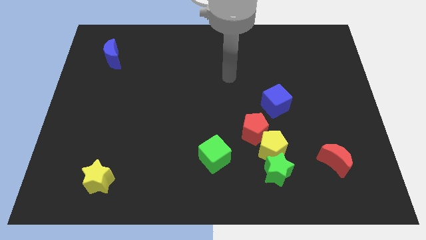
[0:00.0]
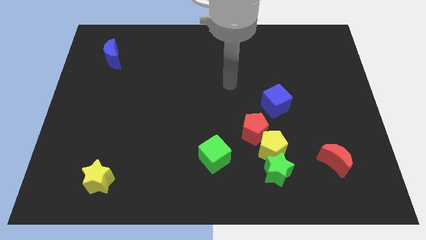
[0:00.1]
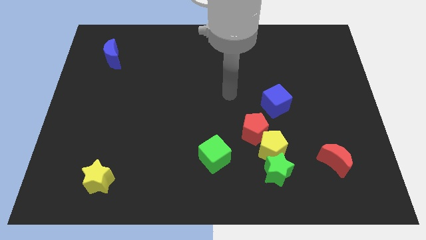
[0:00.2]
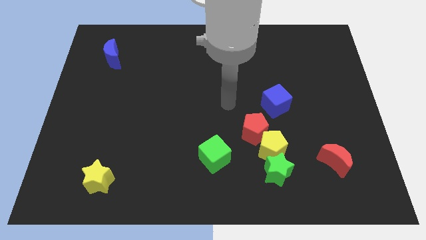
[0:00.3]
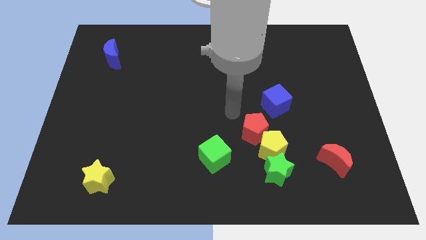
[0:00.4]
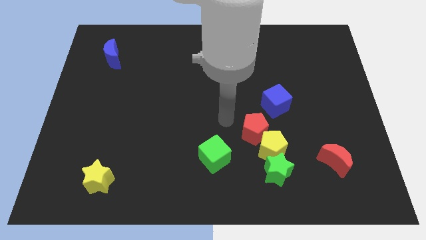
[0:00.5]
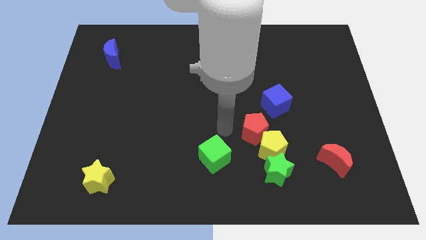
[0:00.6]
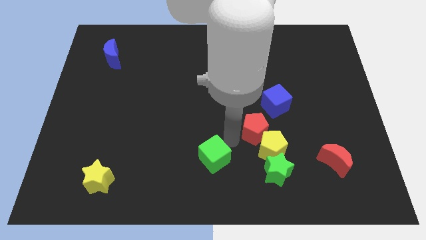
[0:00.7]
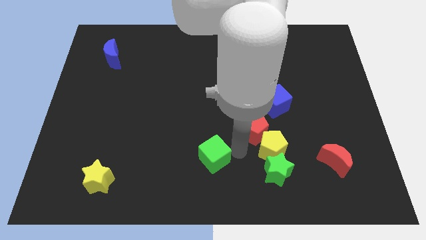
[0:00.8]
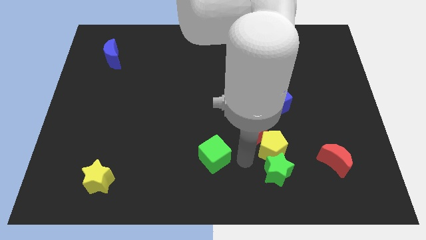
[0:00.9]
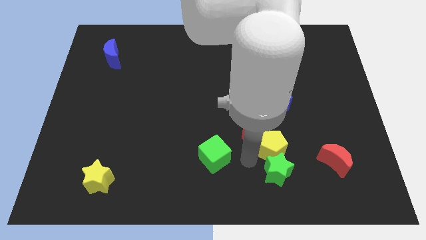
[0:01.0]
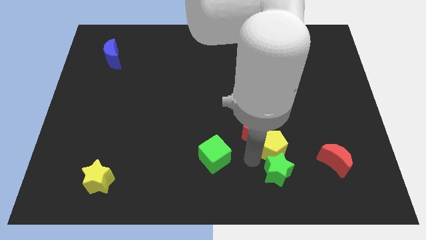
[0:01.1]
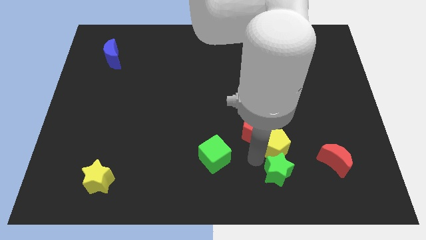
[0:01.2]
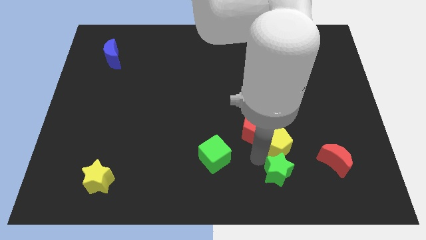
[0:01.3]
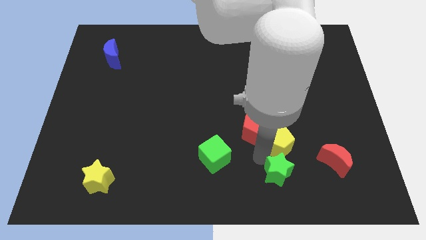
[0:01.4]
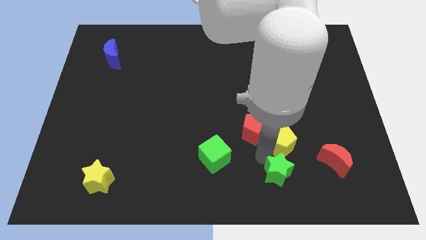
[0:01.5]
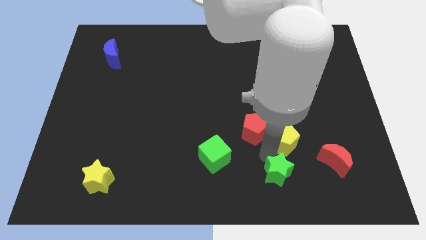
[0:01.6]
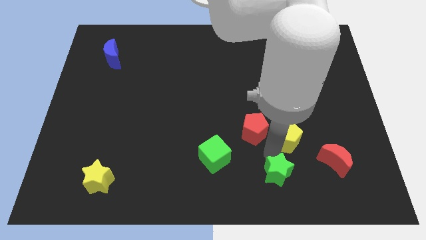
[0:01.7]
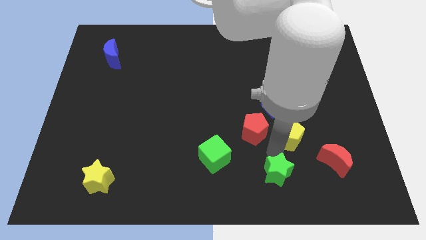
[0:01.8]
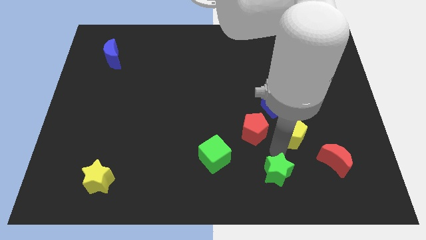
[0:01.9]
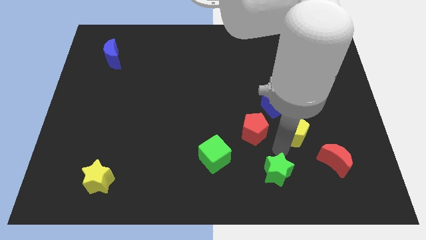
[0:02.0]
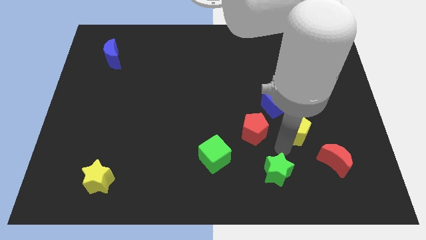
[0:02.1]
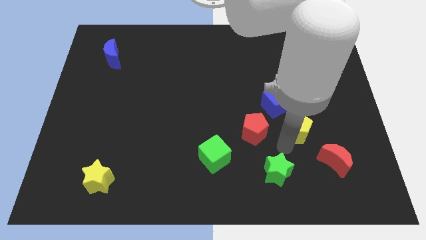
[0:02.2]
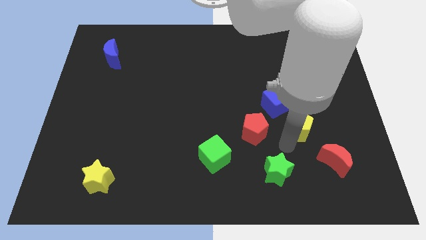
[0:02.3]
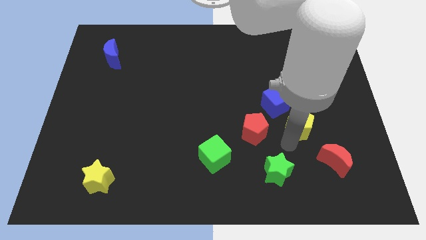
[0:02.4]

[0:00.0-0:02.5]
move the yellow pentagon away from the red pentagon and green star

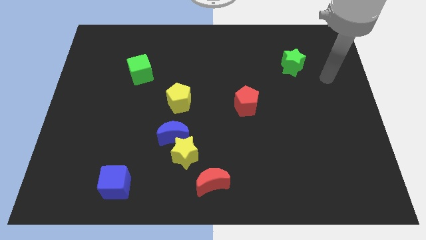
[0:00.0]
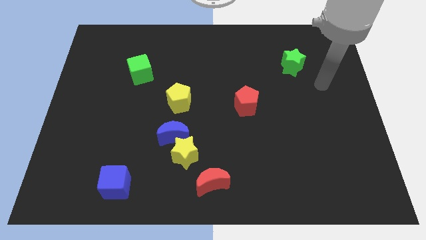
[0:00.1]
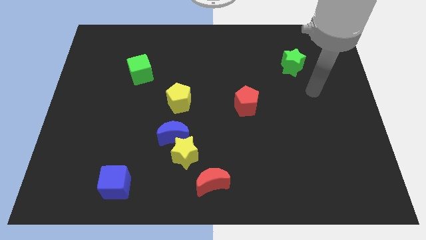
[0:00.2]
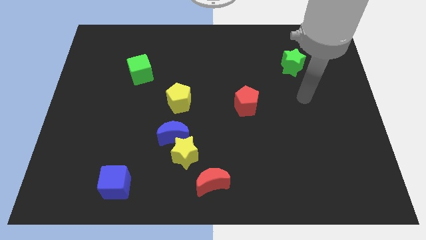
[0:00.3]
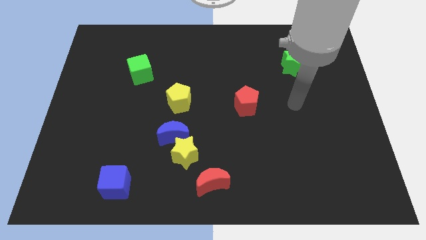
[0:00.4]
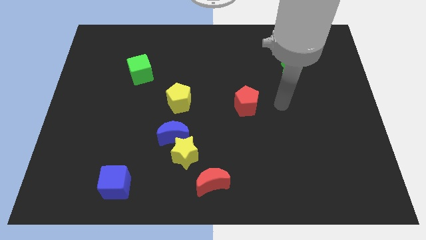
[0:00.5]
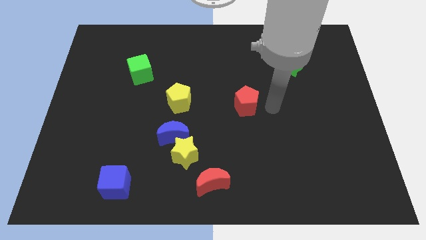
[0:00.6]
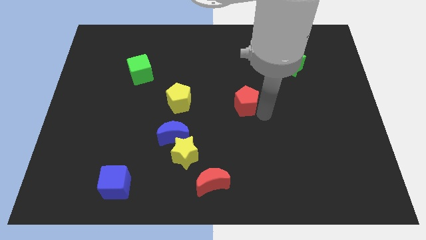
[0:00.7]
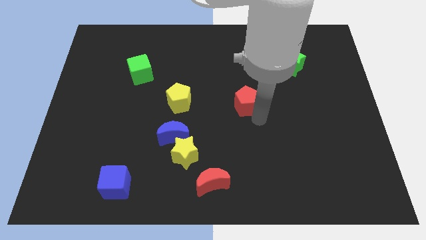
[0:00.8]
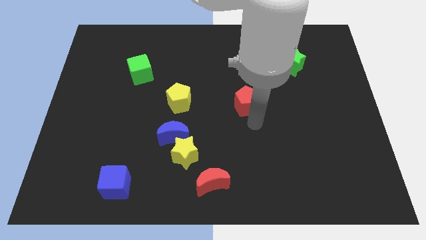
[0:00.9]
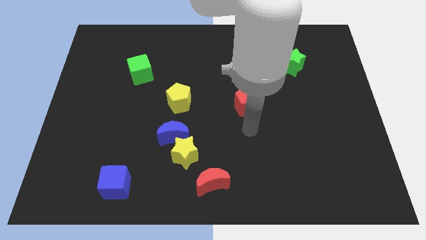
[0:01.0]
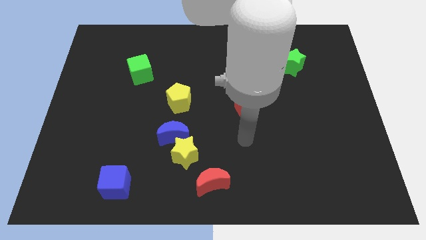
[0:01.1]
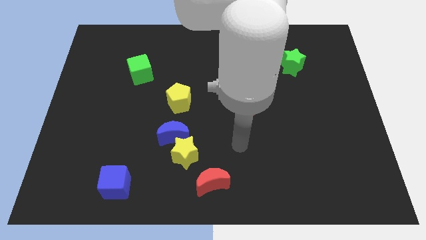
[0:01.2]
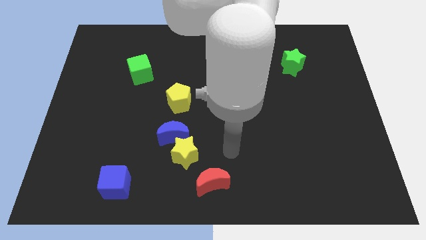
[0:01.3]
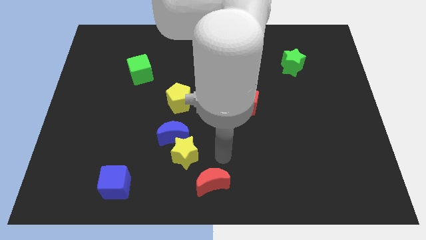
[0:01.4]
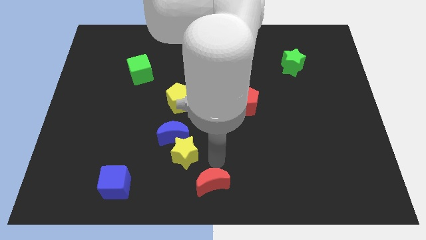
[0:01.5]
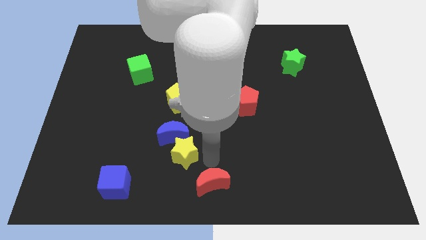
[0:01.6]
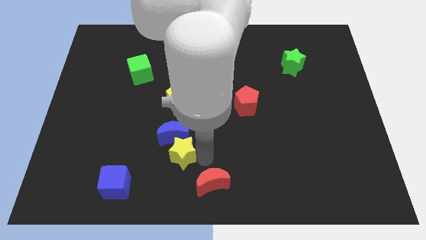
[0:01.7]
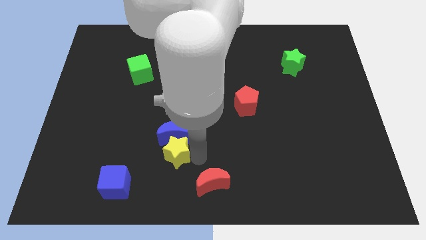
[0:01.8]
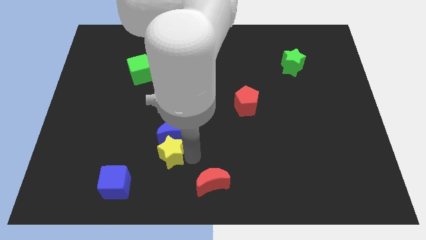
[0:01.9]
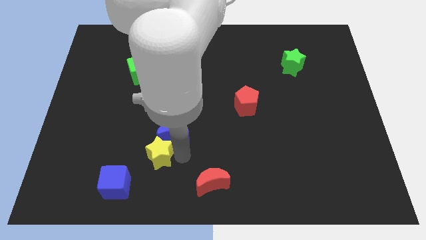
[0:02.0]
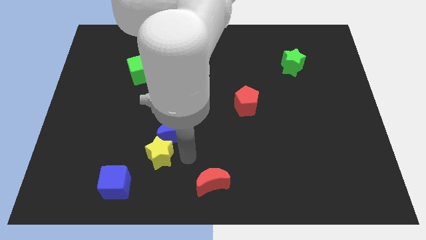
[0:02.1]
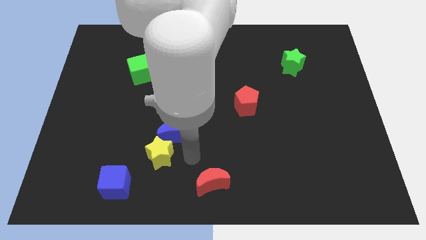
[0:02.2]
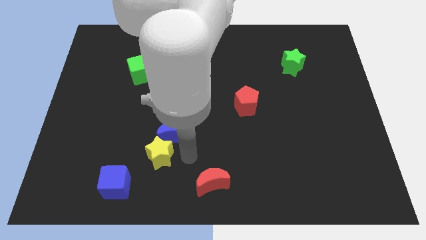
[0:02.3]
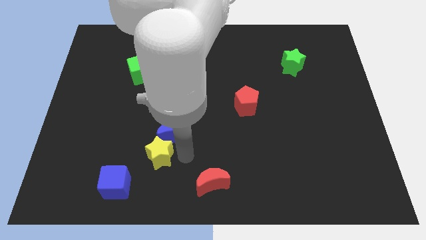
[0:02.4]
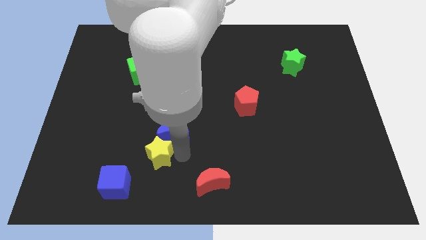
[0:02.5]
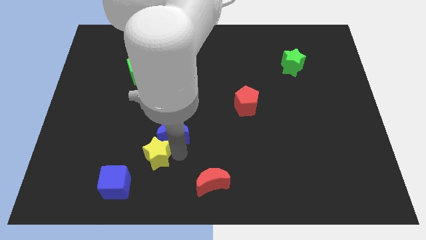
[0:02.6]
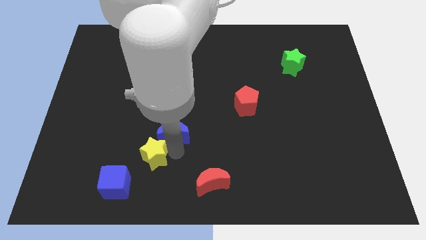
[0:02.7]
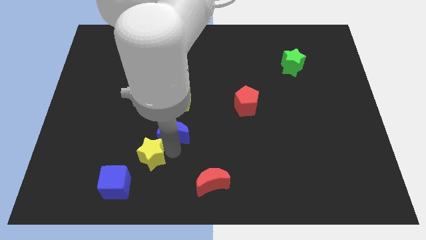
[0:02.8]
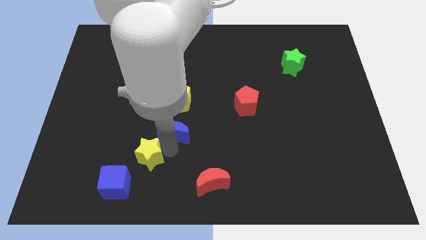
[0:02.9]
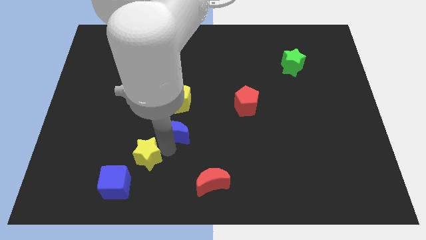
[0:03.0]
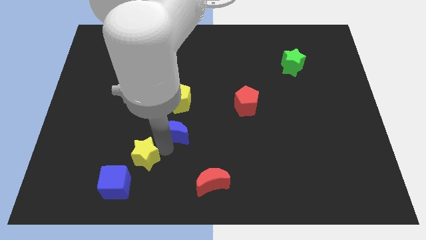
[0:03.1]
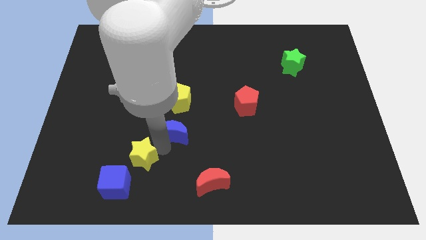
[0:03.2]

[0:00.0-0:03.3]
pull the yellow star apart from the blue moon and red moon

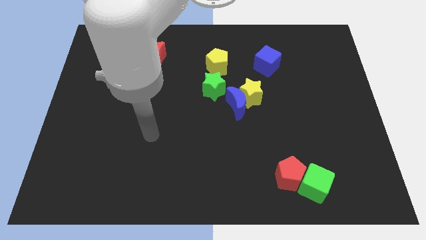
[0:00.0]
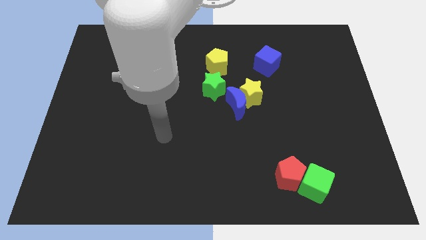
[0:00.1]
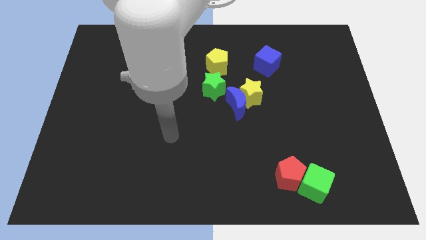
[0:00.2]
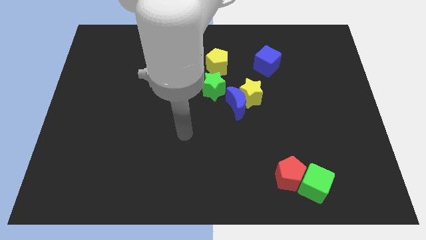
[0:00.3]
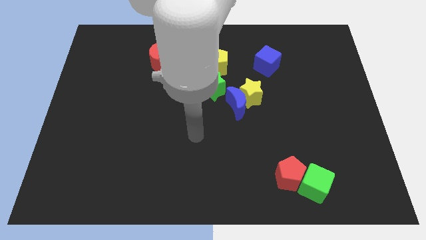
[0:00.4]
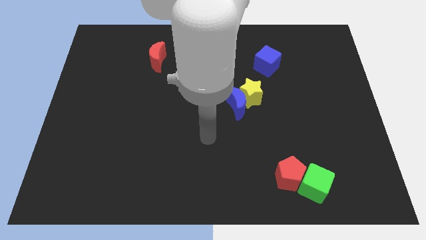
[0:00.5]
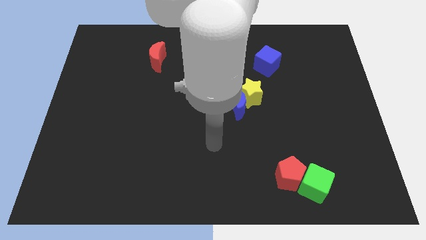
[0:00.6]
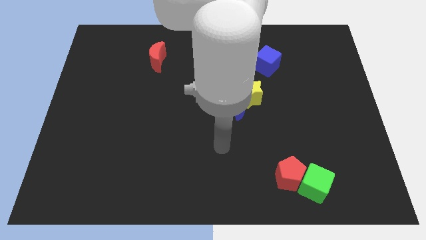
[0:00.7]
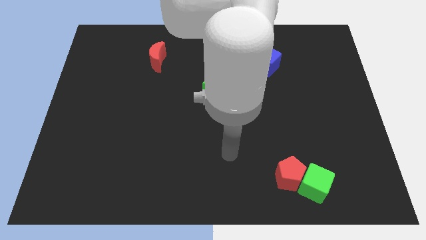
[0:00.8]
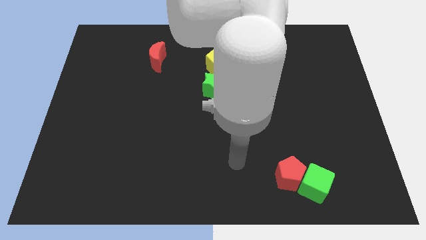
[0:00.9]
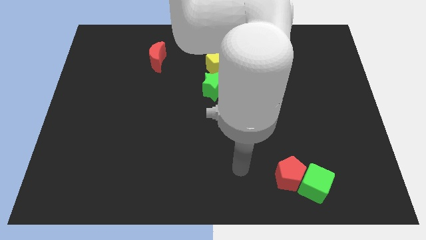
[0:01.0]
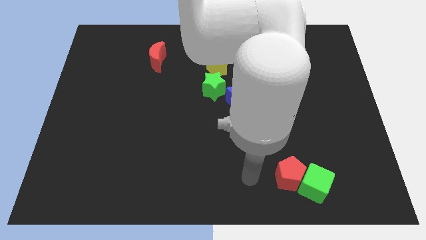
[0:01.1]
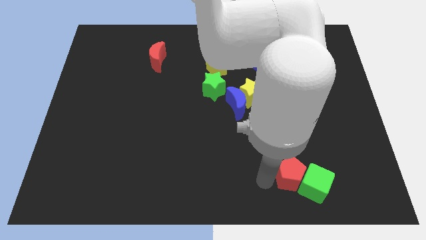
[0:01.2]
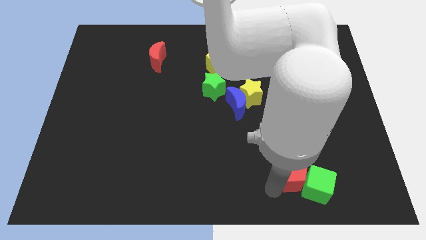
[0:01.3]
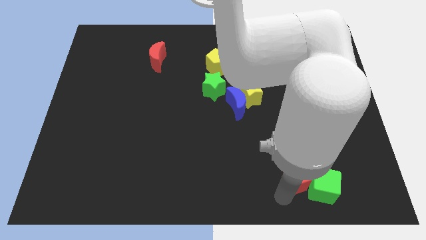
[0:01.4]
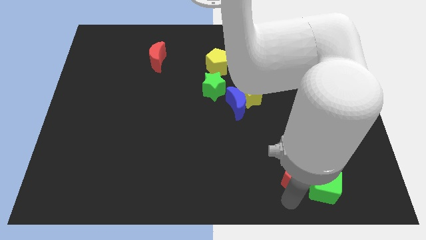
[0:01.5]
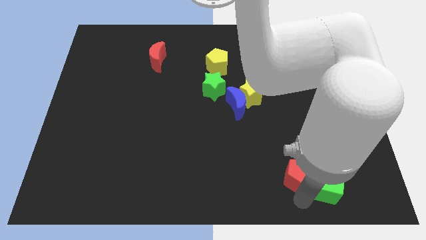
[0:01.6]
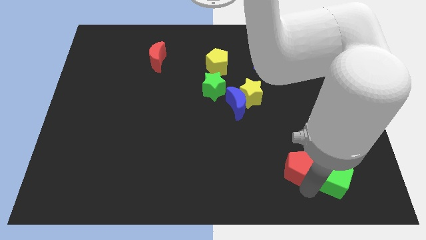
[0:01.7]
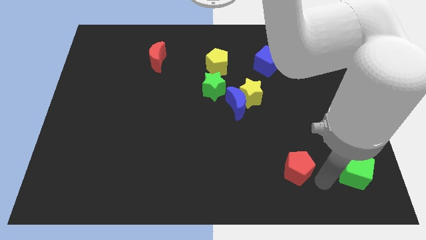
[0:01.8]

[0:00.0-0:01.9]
pull the red pentagon apart from the green cube

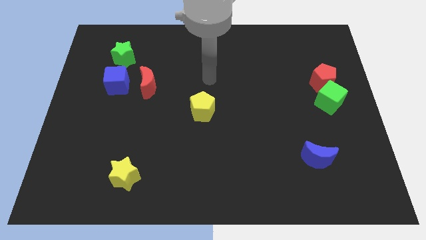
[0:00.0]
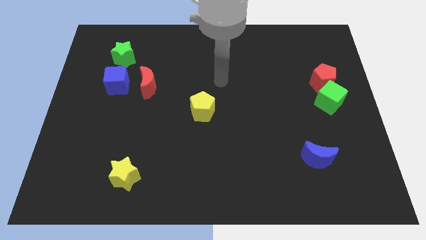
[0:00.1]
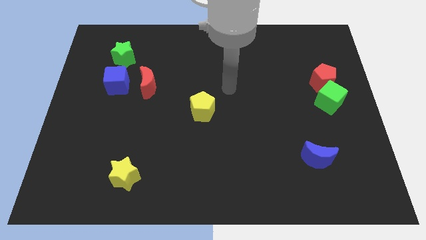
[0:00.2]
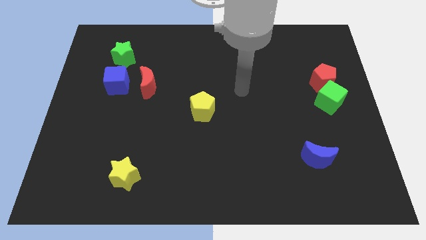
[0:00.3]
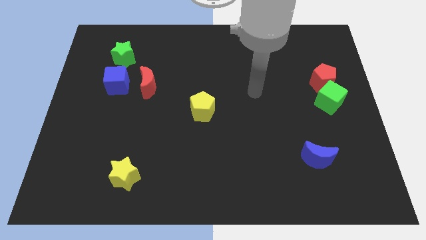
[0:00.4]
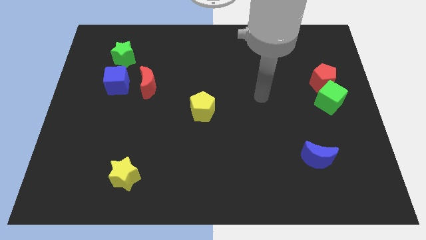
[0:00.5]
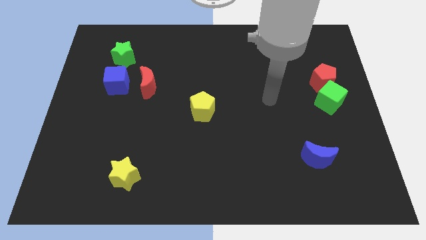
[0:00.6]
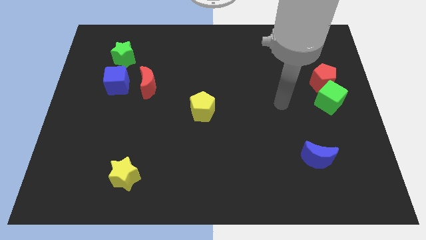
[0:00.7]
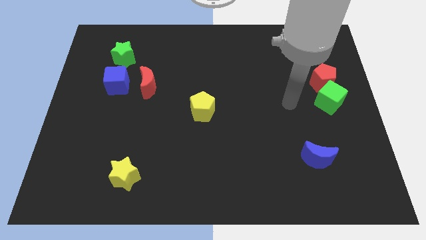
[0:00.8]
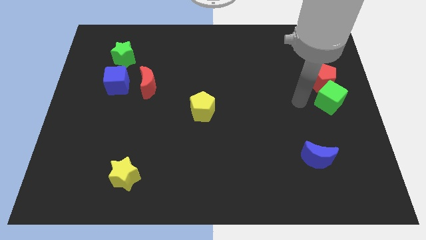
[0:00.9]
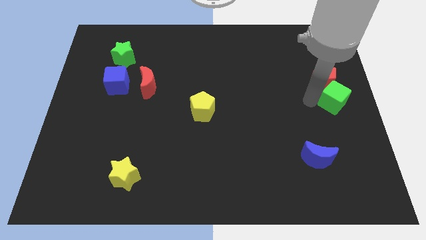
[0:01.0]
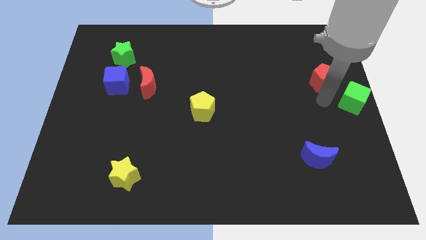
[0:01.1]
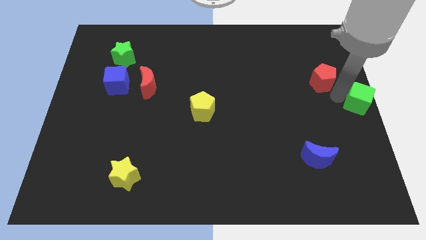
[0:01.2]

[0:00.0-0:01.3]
separate the red pentagon from the green cube

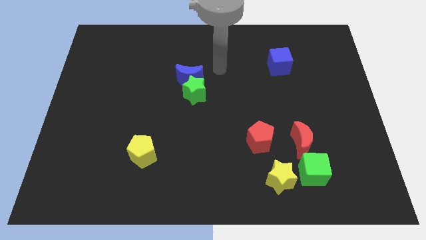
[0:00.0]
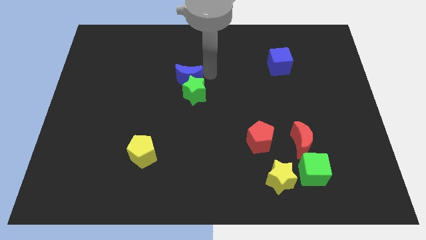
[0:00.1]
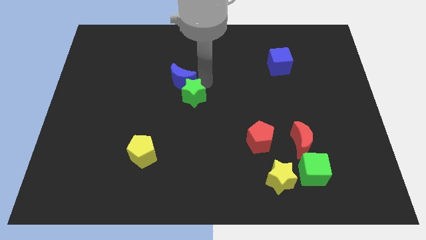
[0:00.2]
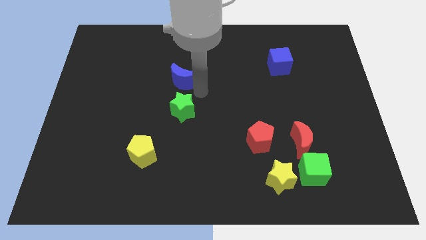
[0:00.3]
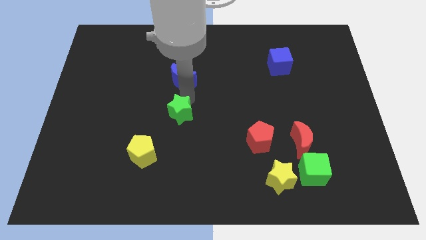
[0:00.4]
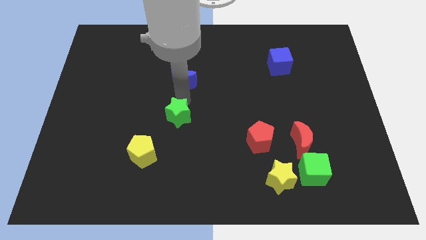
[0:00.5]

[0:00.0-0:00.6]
move the blue moon away from the green star
